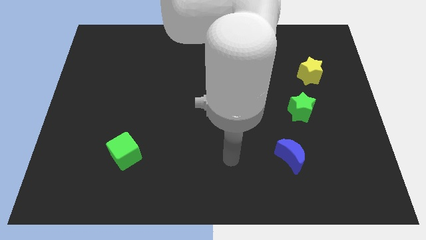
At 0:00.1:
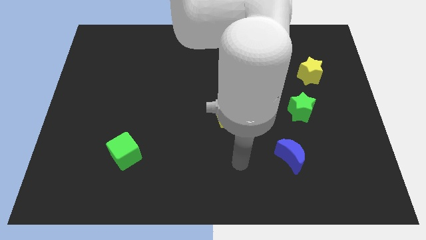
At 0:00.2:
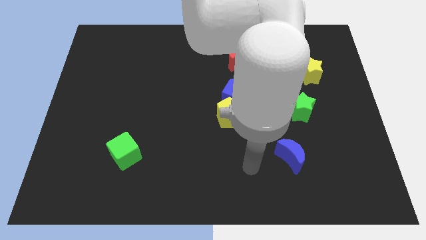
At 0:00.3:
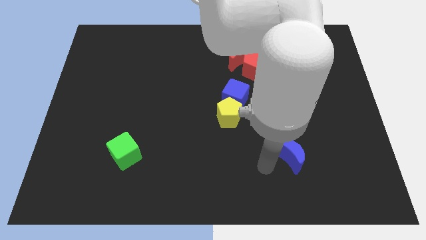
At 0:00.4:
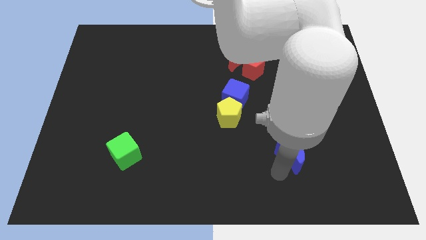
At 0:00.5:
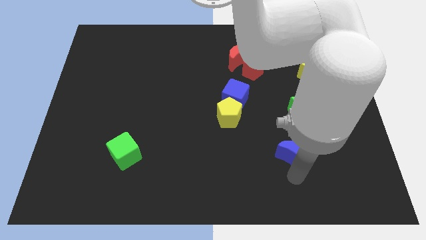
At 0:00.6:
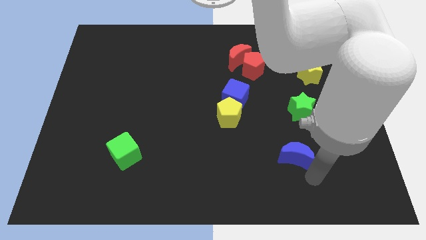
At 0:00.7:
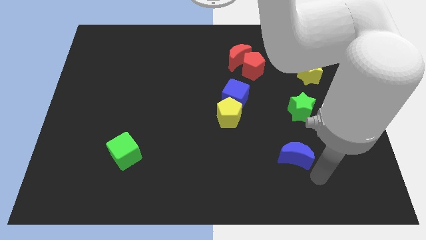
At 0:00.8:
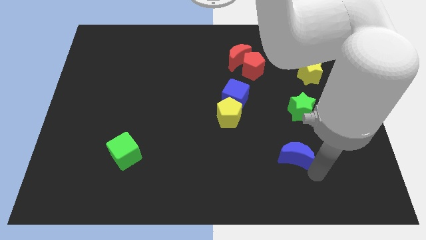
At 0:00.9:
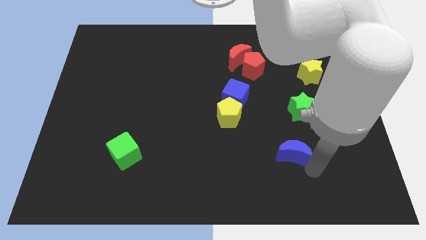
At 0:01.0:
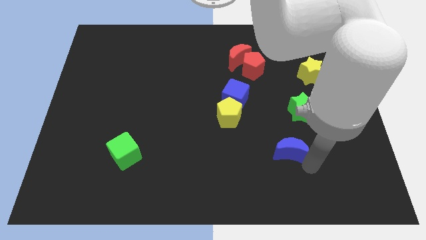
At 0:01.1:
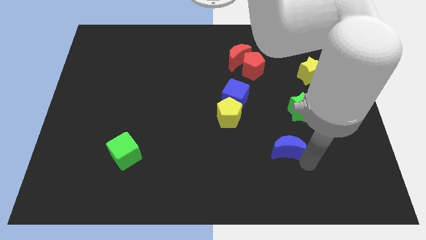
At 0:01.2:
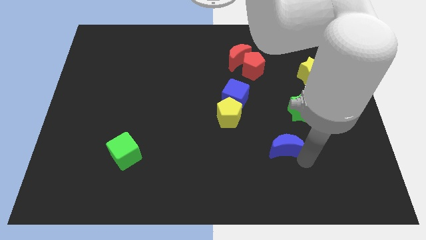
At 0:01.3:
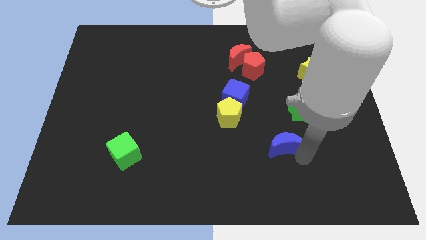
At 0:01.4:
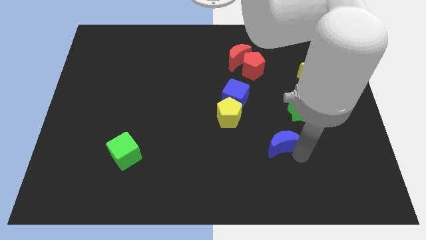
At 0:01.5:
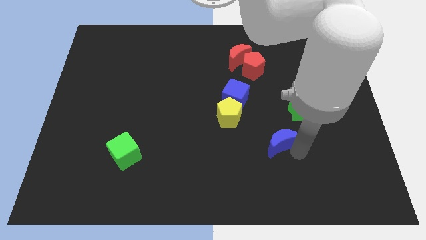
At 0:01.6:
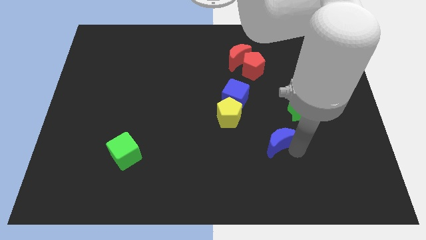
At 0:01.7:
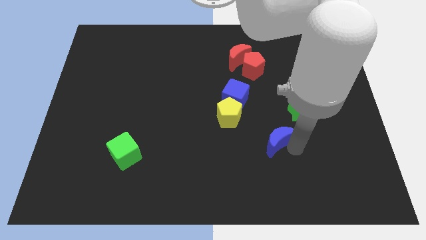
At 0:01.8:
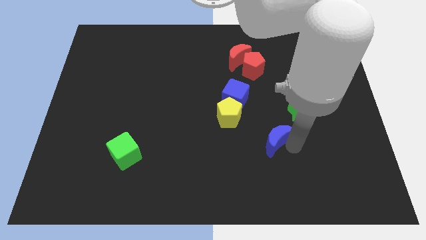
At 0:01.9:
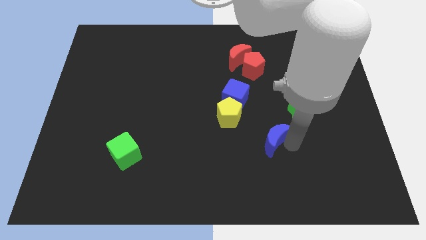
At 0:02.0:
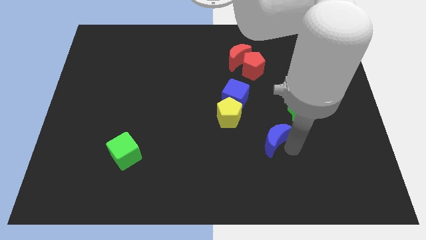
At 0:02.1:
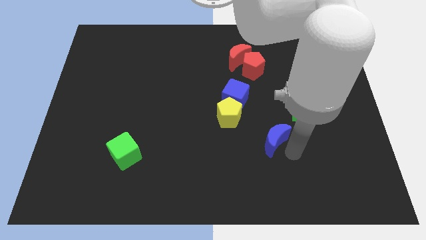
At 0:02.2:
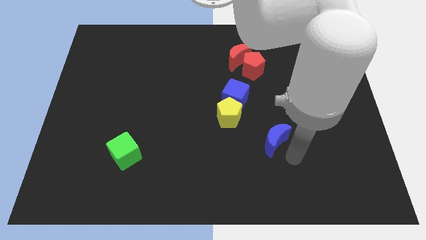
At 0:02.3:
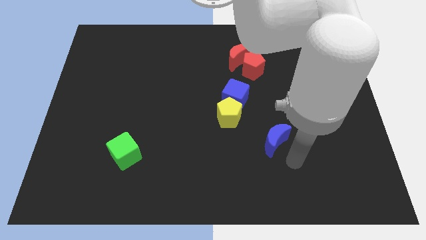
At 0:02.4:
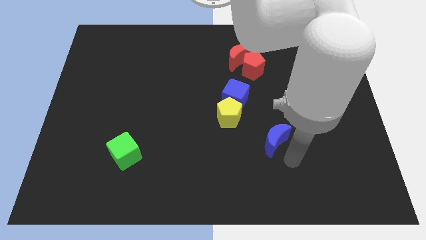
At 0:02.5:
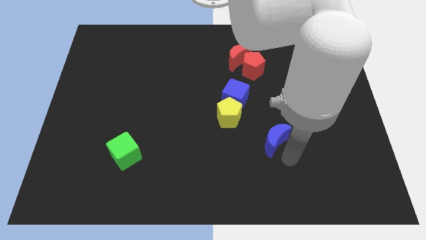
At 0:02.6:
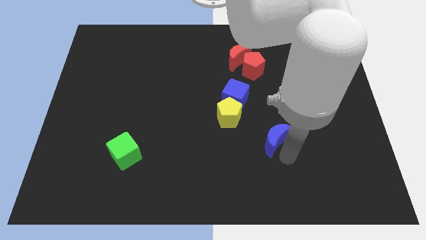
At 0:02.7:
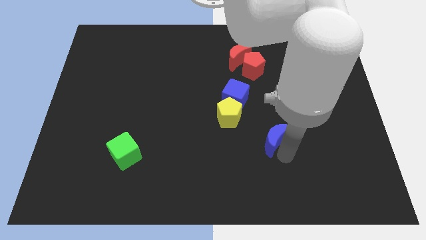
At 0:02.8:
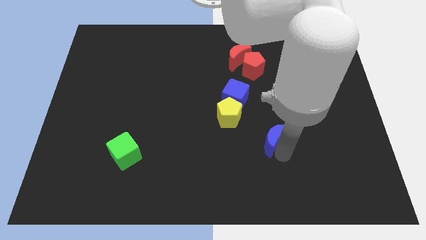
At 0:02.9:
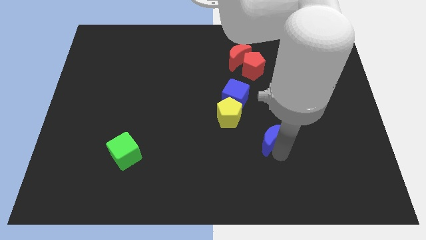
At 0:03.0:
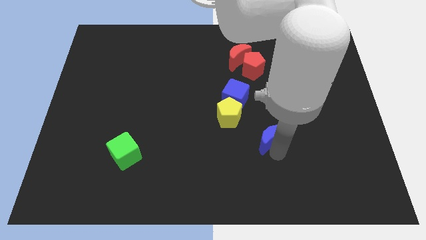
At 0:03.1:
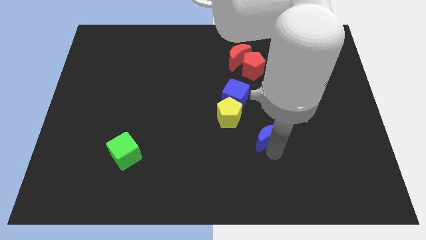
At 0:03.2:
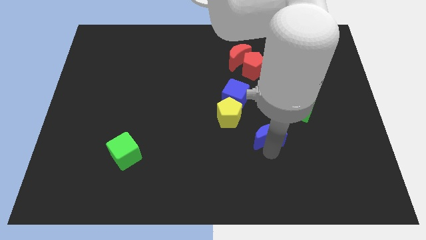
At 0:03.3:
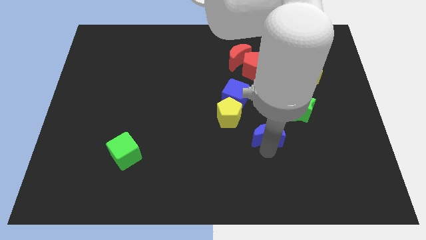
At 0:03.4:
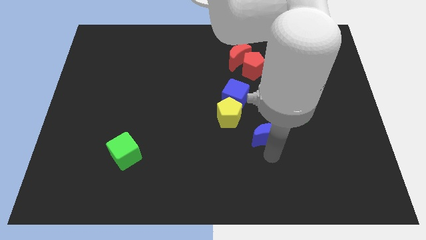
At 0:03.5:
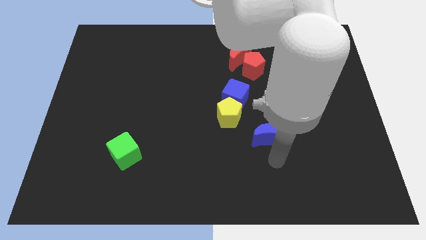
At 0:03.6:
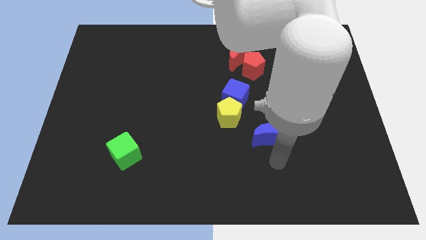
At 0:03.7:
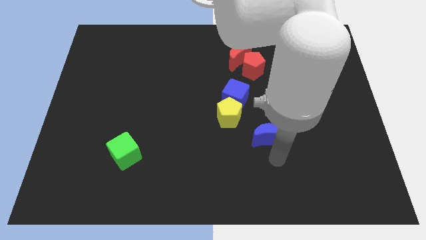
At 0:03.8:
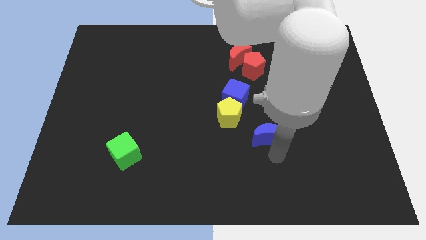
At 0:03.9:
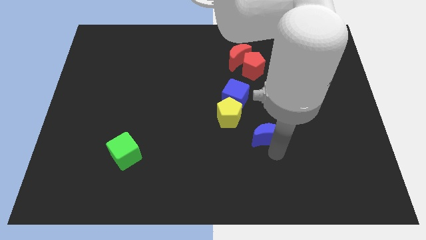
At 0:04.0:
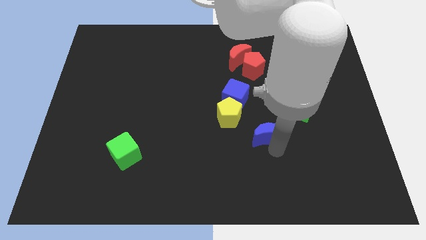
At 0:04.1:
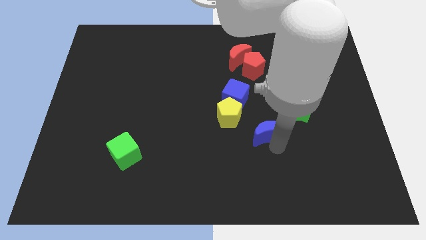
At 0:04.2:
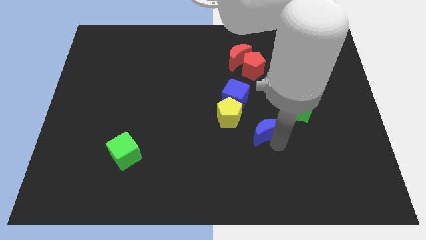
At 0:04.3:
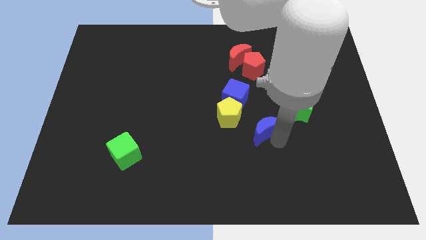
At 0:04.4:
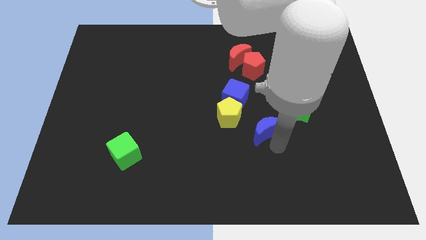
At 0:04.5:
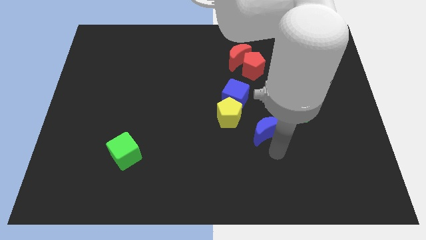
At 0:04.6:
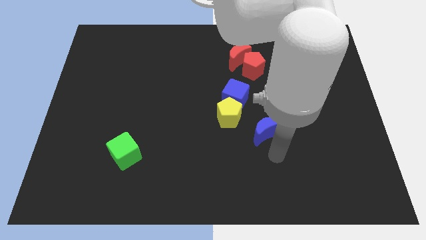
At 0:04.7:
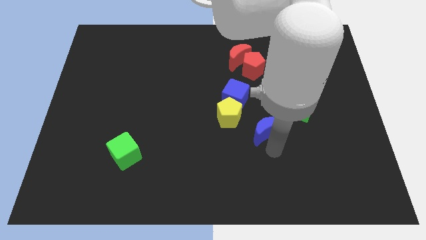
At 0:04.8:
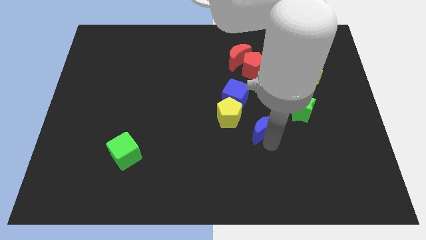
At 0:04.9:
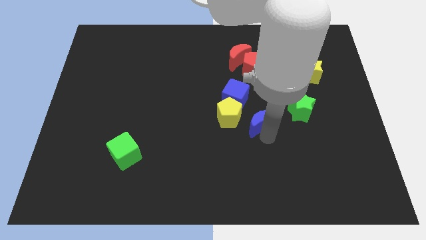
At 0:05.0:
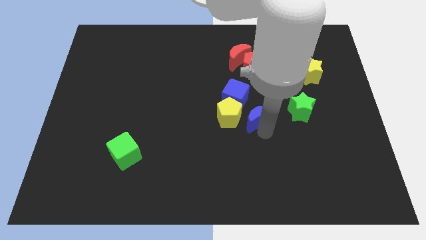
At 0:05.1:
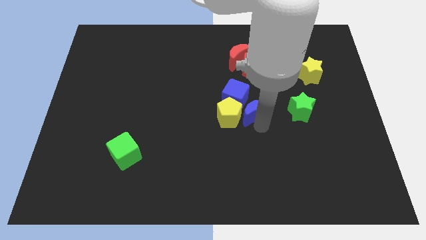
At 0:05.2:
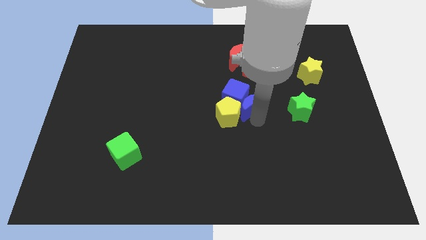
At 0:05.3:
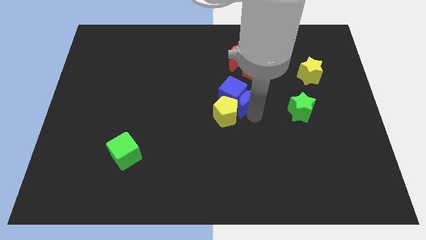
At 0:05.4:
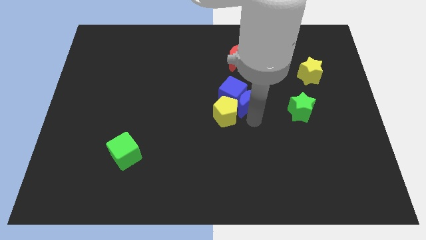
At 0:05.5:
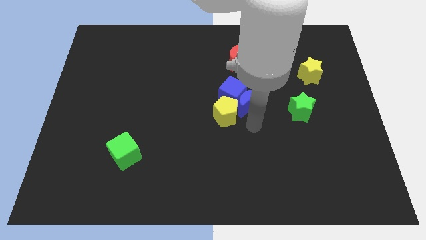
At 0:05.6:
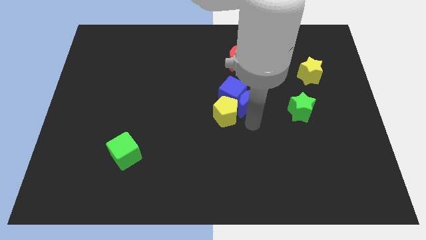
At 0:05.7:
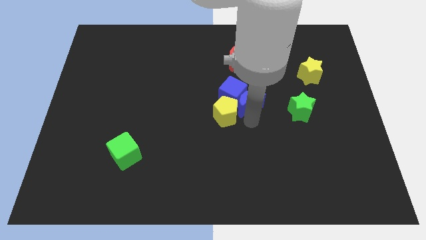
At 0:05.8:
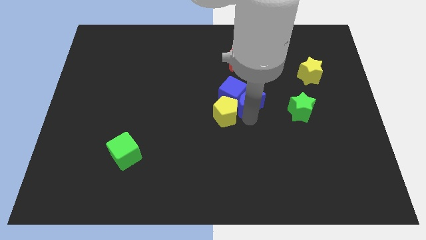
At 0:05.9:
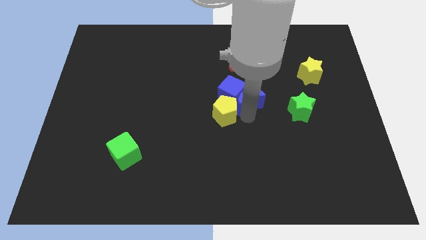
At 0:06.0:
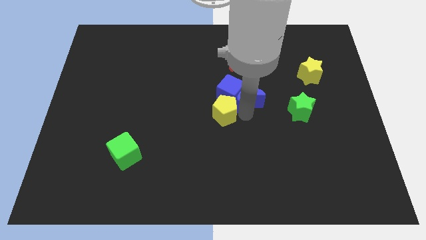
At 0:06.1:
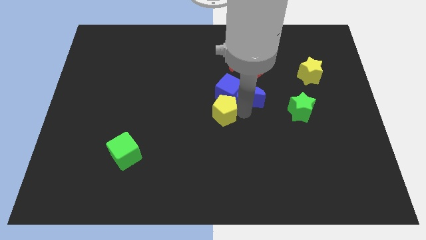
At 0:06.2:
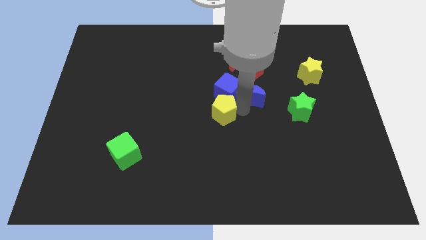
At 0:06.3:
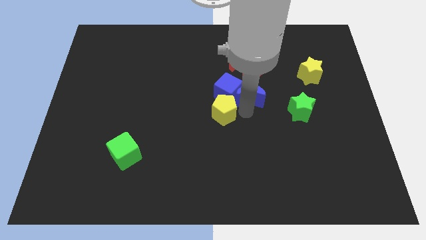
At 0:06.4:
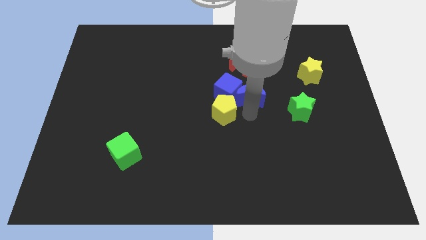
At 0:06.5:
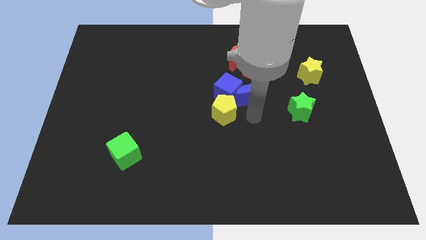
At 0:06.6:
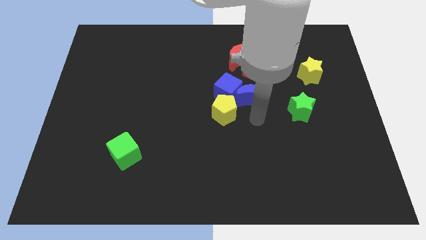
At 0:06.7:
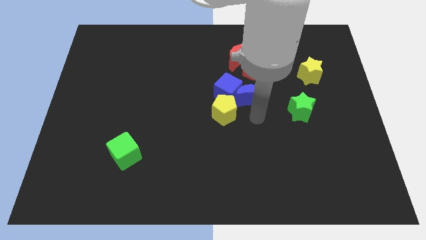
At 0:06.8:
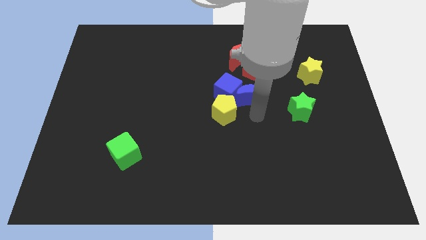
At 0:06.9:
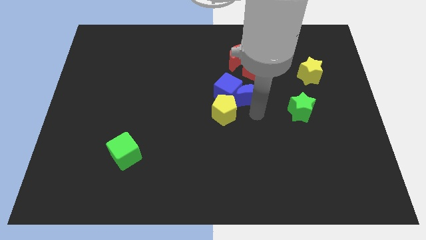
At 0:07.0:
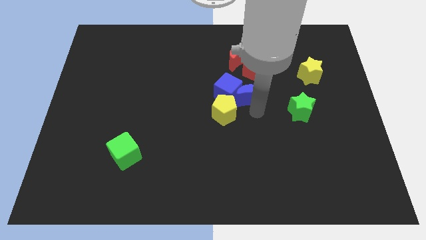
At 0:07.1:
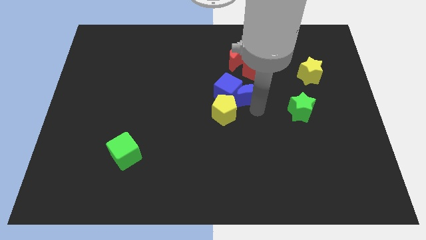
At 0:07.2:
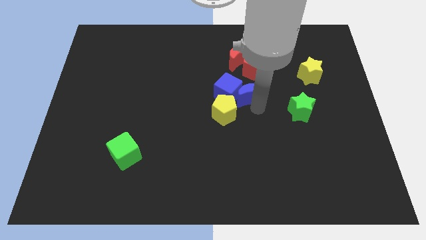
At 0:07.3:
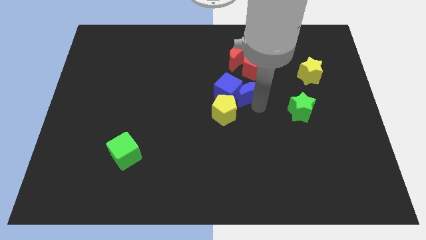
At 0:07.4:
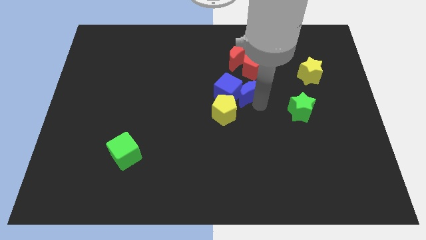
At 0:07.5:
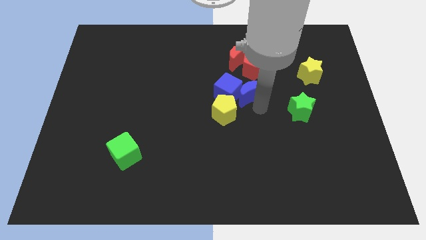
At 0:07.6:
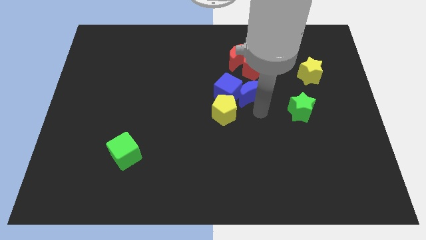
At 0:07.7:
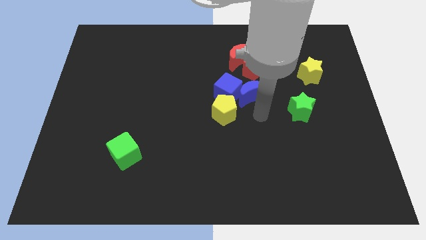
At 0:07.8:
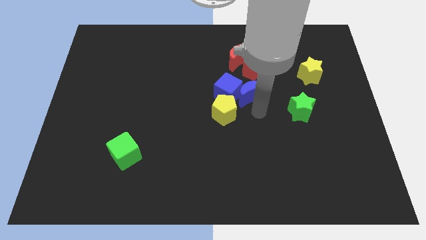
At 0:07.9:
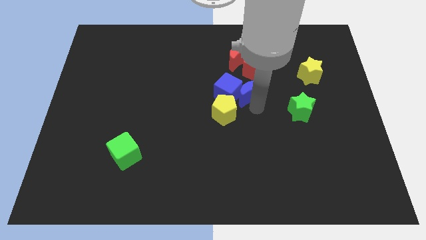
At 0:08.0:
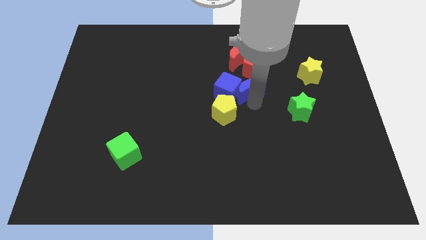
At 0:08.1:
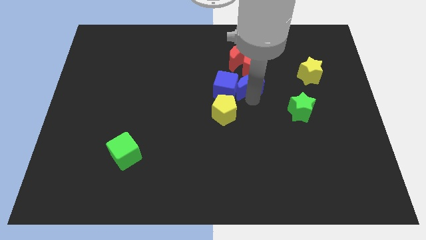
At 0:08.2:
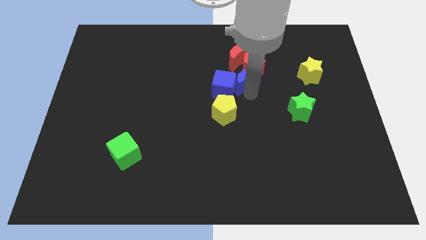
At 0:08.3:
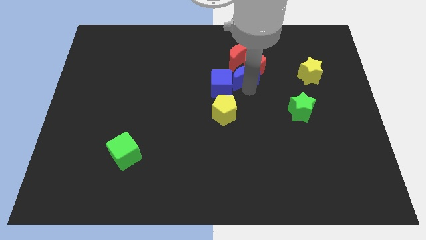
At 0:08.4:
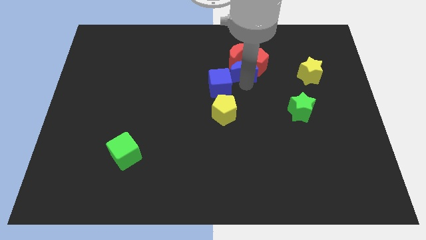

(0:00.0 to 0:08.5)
move the blue moon next to the red moon
